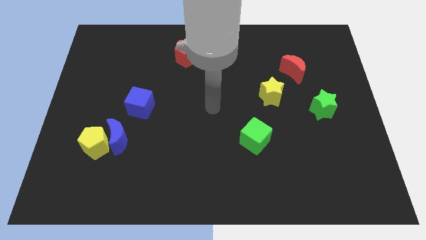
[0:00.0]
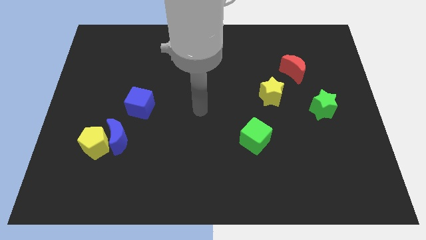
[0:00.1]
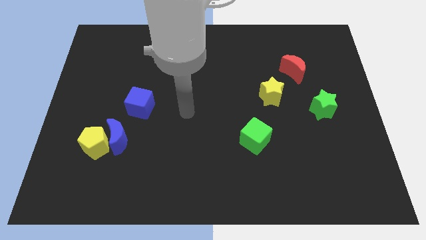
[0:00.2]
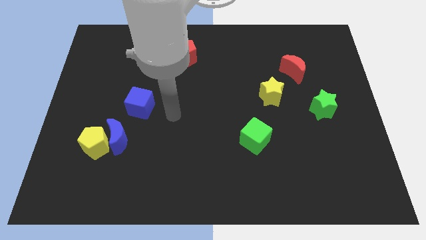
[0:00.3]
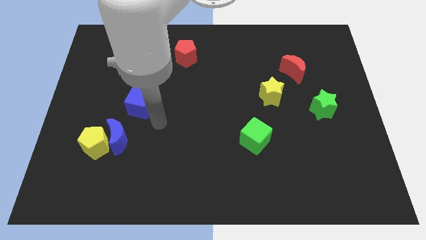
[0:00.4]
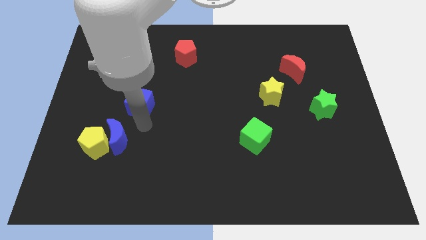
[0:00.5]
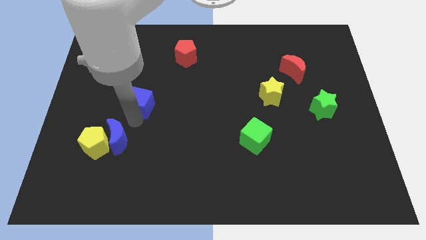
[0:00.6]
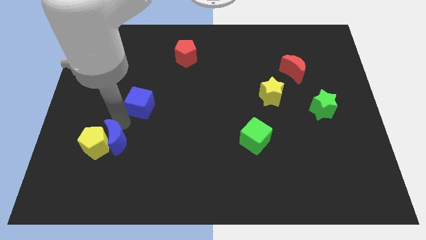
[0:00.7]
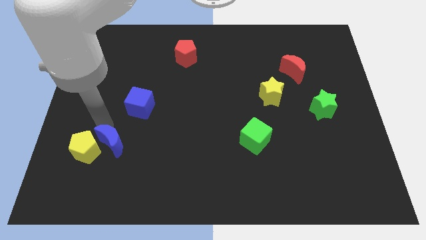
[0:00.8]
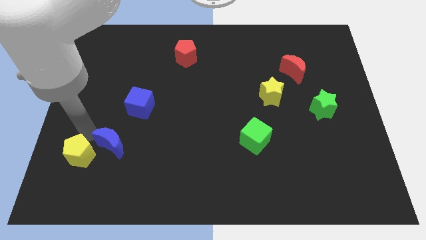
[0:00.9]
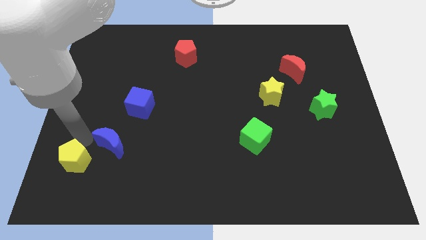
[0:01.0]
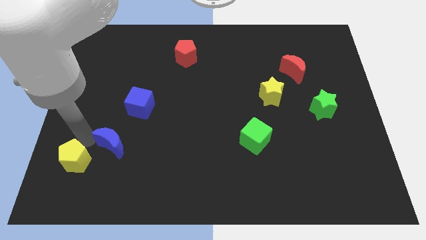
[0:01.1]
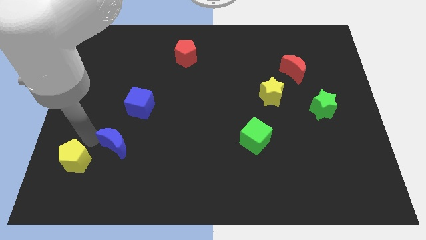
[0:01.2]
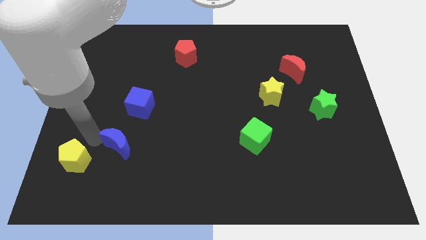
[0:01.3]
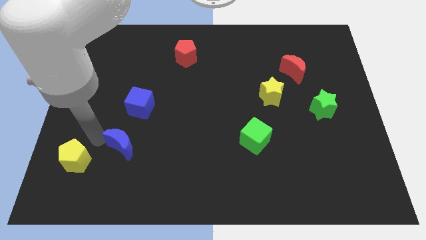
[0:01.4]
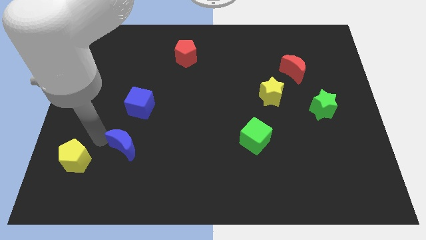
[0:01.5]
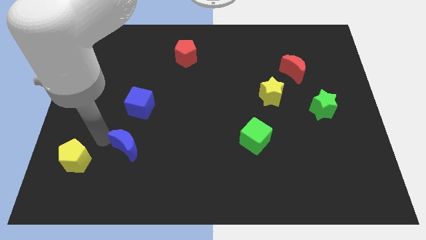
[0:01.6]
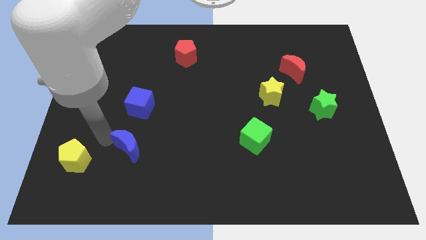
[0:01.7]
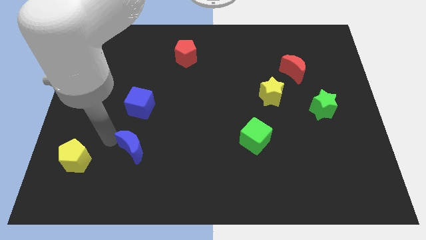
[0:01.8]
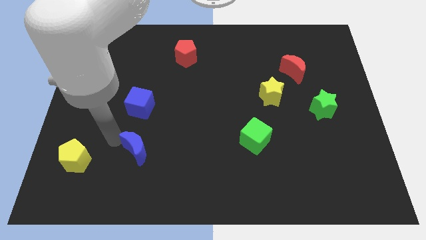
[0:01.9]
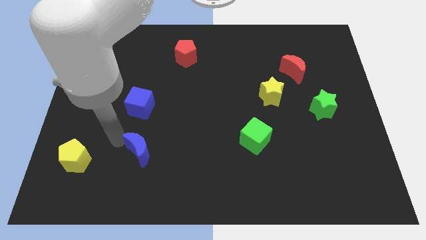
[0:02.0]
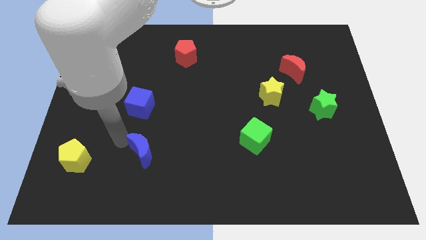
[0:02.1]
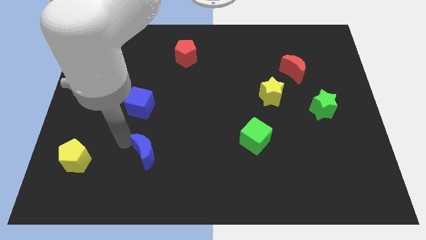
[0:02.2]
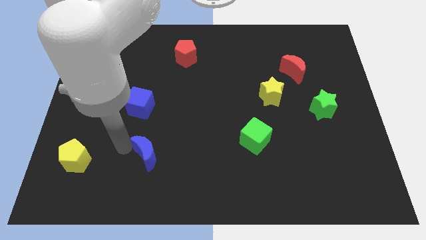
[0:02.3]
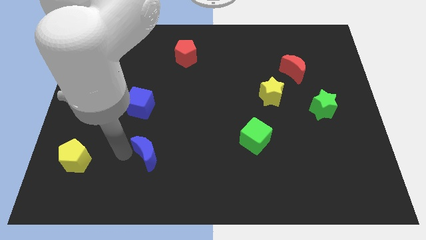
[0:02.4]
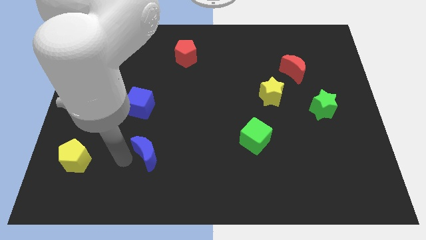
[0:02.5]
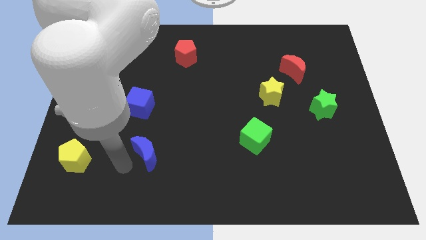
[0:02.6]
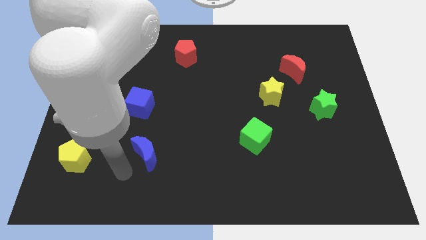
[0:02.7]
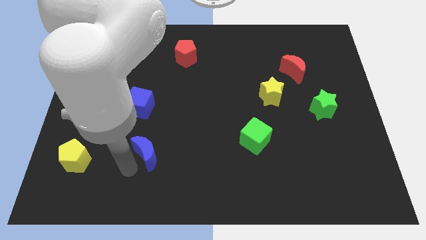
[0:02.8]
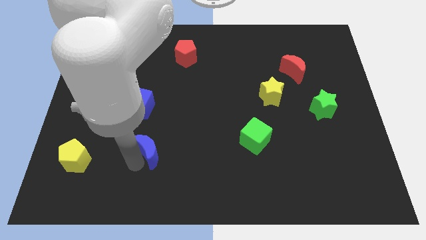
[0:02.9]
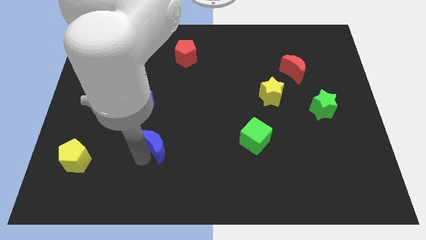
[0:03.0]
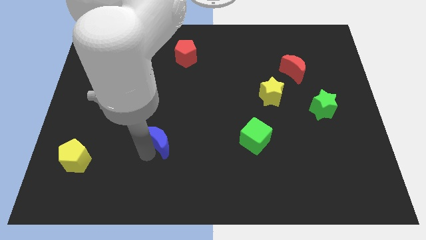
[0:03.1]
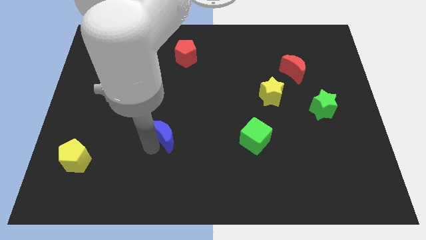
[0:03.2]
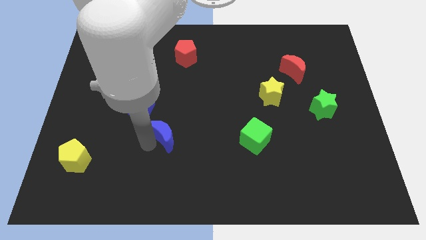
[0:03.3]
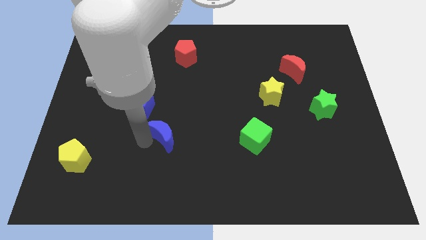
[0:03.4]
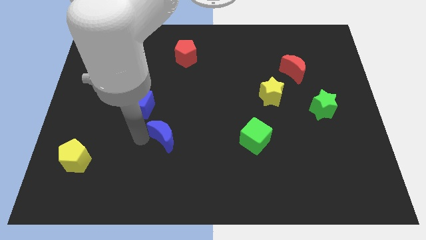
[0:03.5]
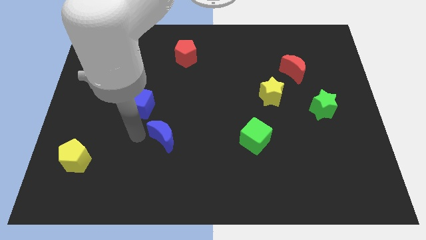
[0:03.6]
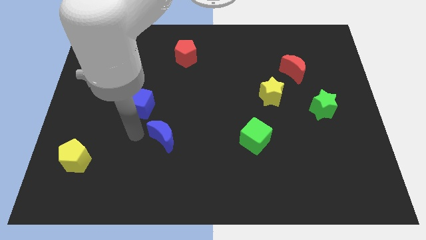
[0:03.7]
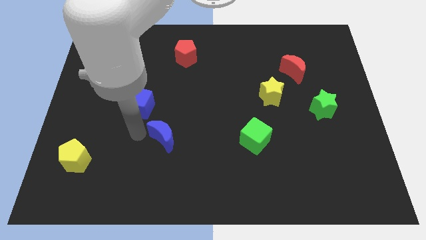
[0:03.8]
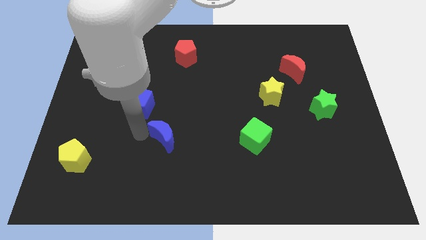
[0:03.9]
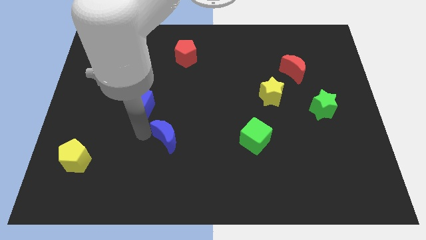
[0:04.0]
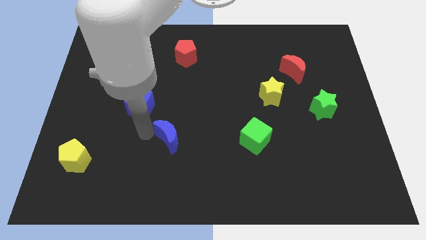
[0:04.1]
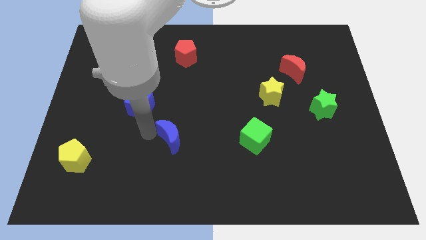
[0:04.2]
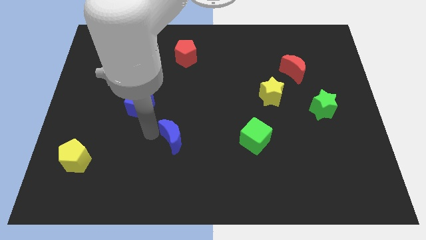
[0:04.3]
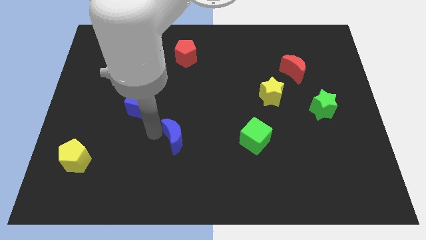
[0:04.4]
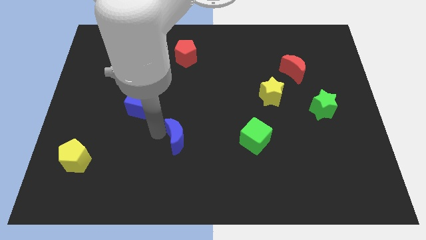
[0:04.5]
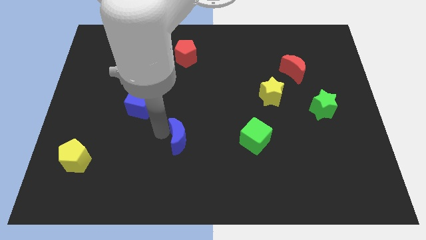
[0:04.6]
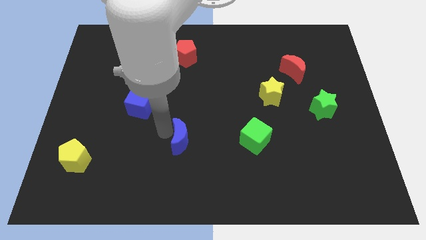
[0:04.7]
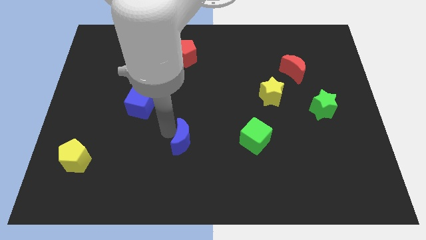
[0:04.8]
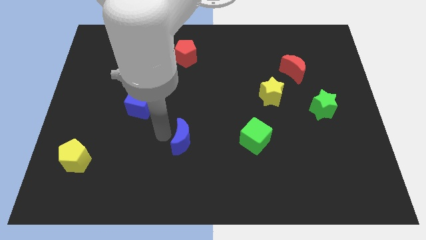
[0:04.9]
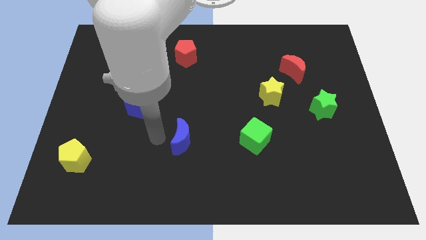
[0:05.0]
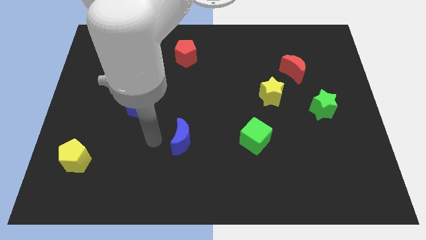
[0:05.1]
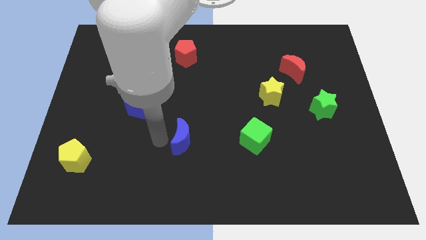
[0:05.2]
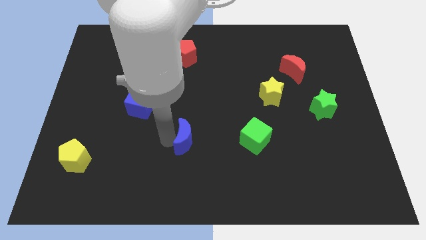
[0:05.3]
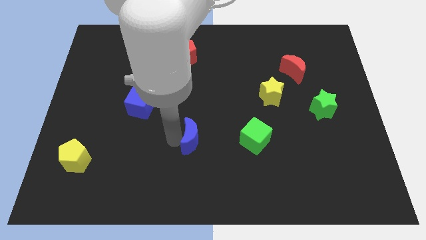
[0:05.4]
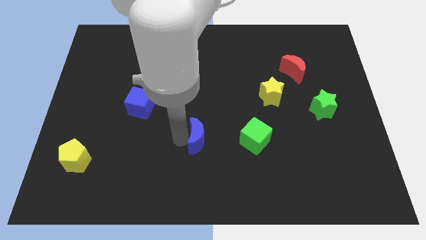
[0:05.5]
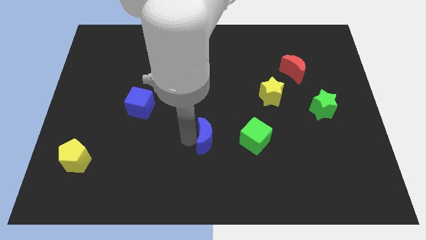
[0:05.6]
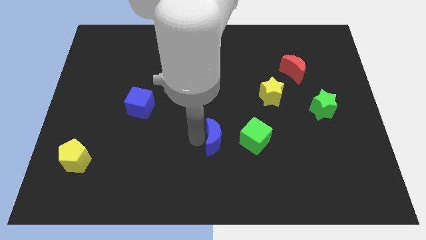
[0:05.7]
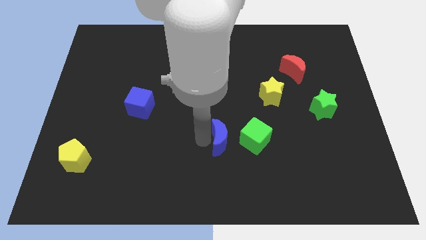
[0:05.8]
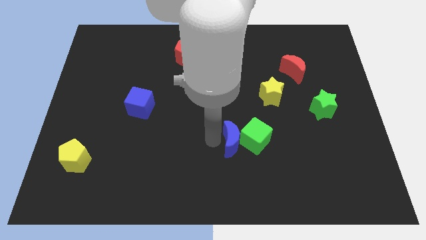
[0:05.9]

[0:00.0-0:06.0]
slide the blue moon next to the green cube

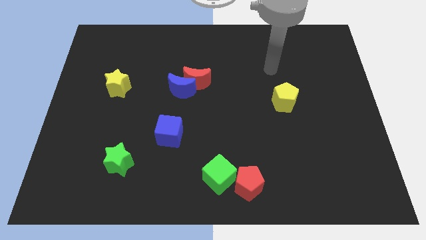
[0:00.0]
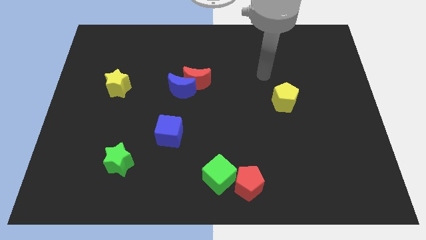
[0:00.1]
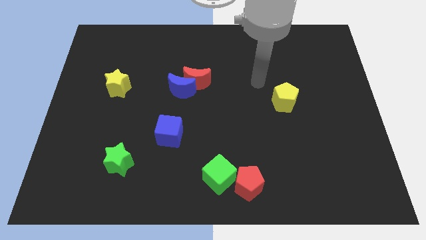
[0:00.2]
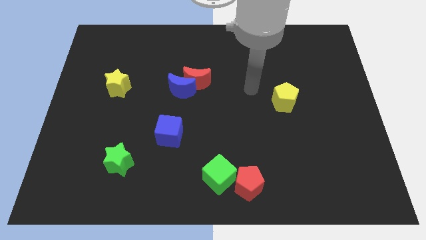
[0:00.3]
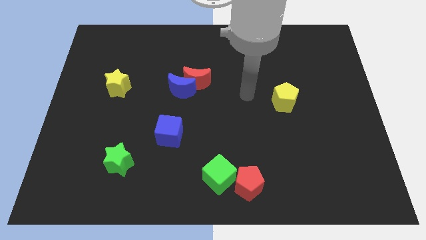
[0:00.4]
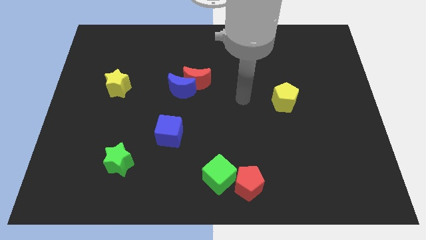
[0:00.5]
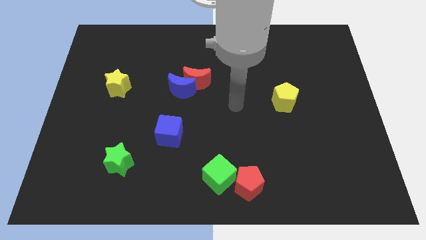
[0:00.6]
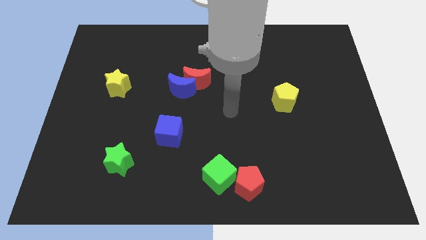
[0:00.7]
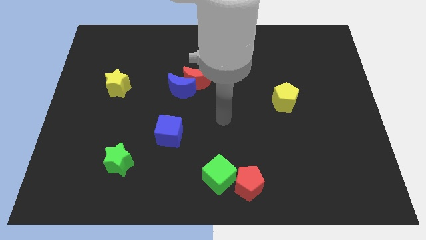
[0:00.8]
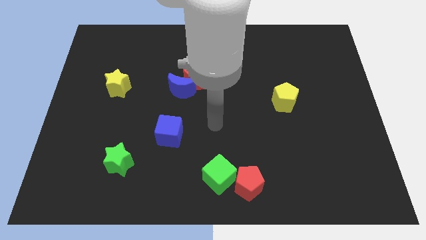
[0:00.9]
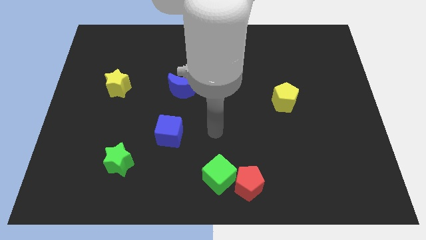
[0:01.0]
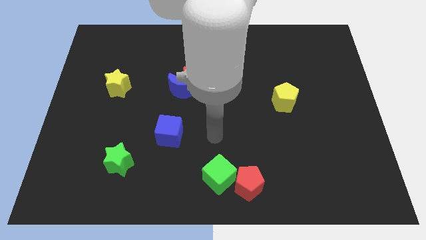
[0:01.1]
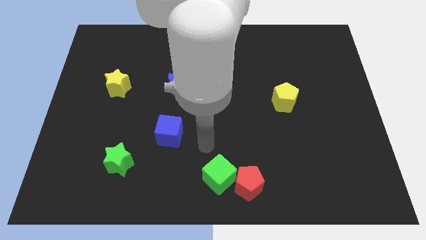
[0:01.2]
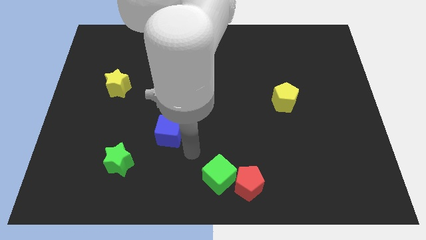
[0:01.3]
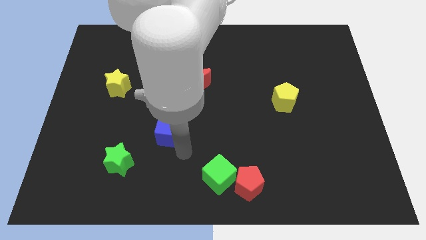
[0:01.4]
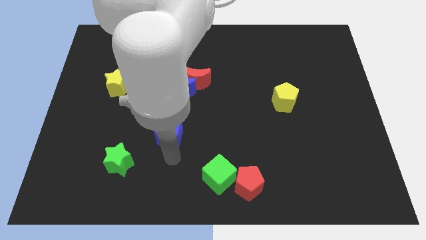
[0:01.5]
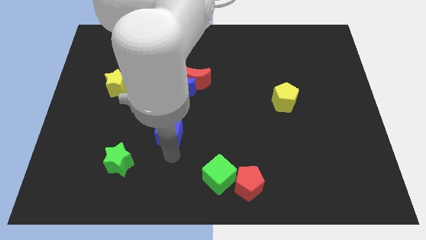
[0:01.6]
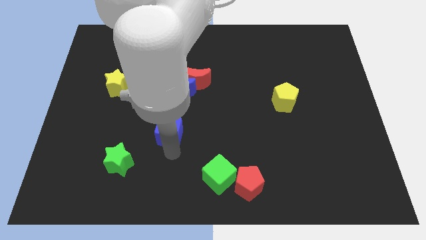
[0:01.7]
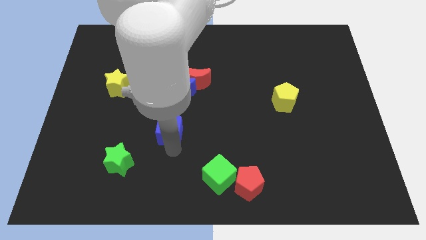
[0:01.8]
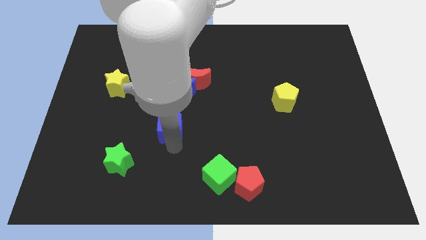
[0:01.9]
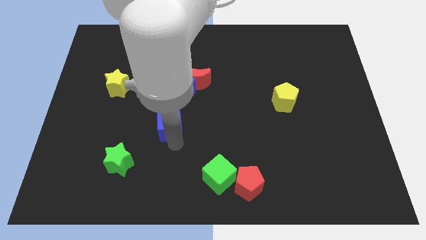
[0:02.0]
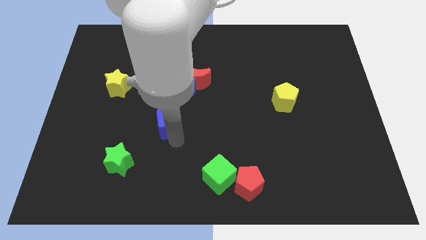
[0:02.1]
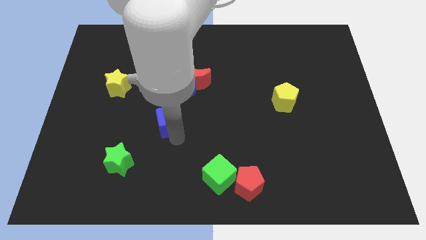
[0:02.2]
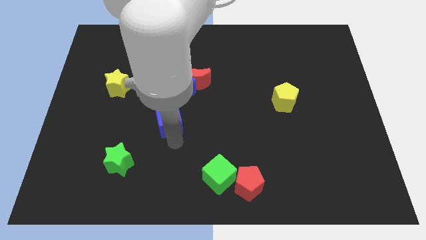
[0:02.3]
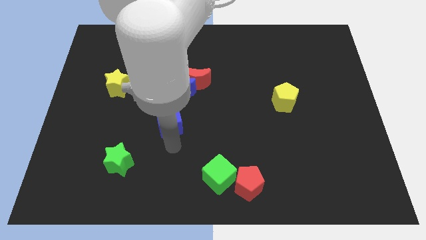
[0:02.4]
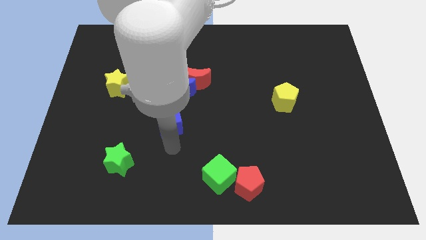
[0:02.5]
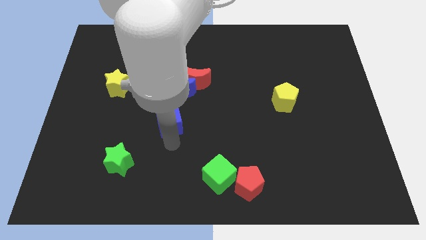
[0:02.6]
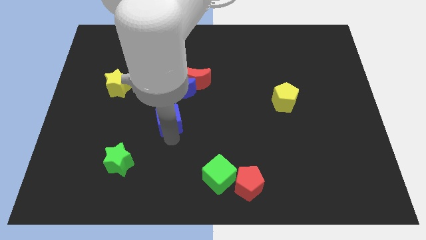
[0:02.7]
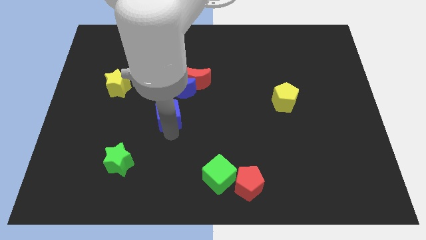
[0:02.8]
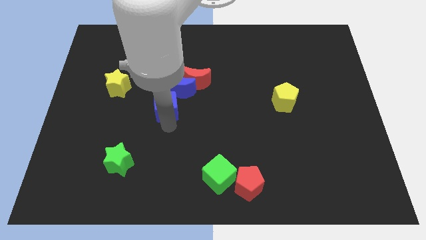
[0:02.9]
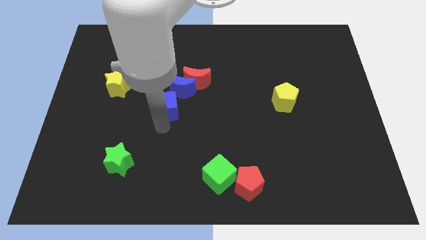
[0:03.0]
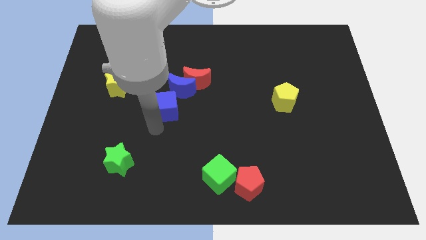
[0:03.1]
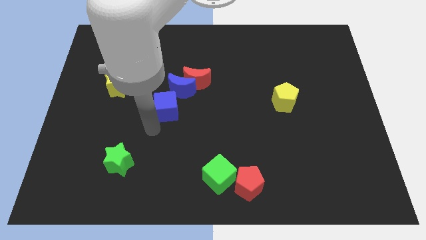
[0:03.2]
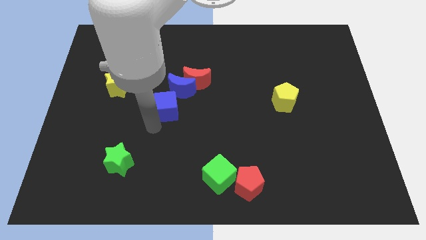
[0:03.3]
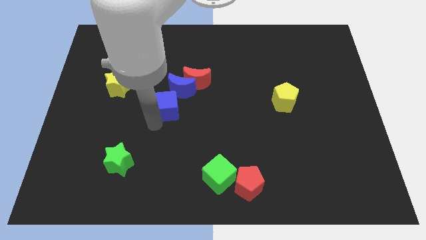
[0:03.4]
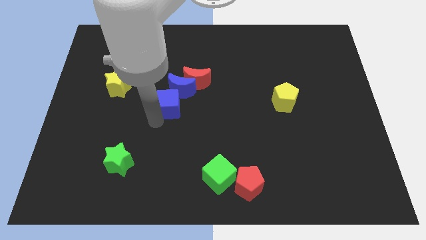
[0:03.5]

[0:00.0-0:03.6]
slide the blue cube to the blue moon
